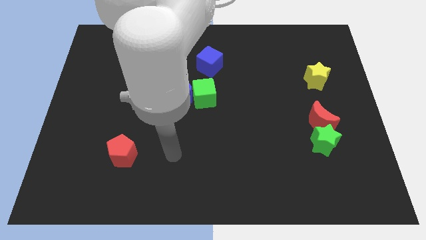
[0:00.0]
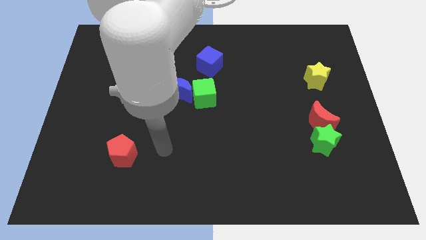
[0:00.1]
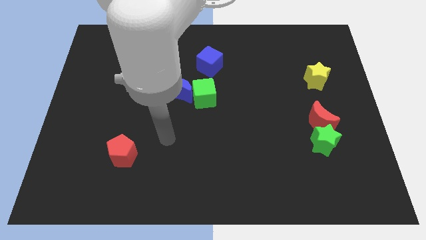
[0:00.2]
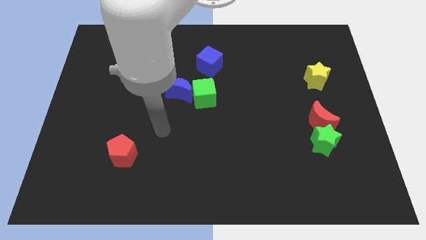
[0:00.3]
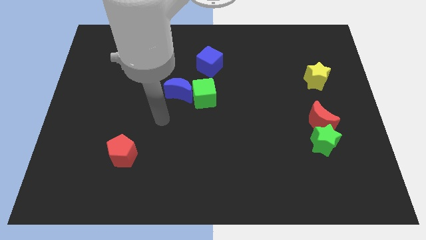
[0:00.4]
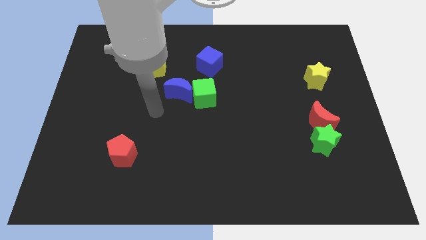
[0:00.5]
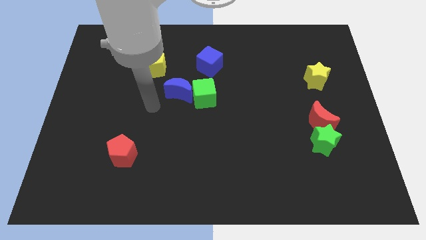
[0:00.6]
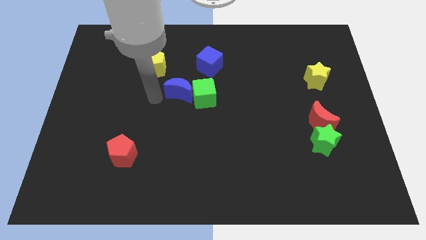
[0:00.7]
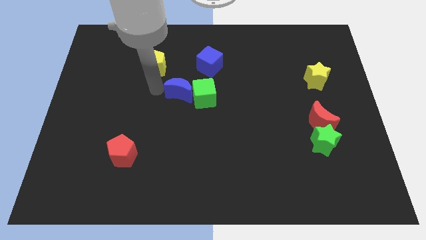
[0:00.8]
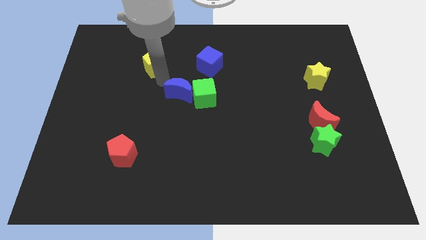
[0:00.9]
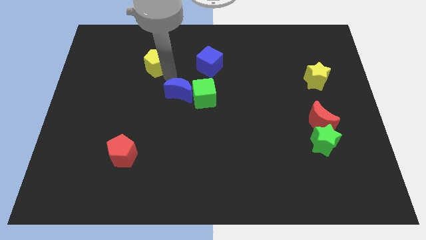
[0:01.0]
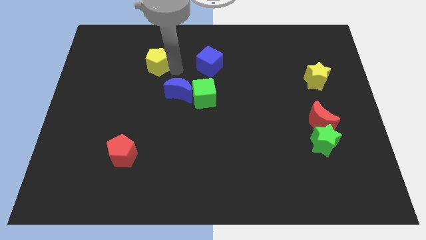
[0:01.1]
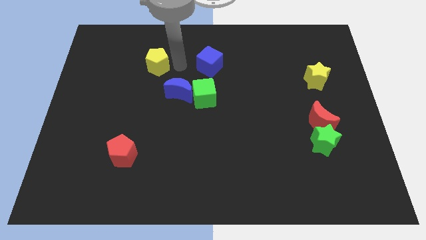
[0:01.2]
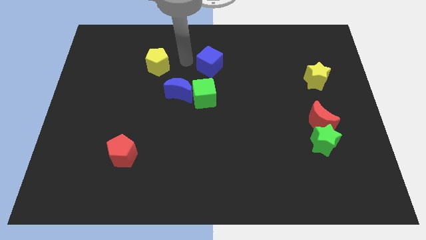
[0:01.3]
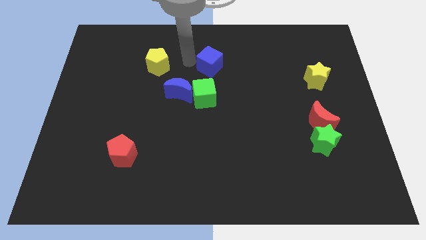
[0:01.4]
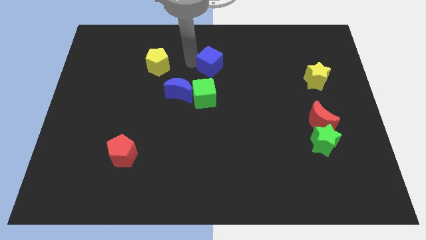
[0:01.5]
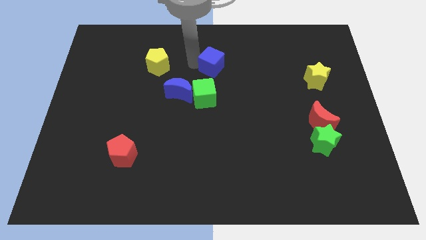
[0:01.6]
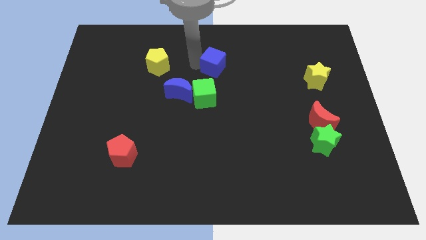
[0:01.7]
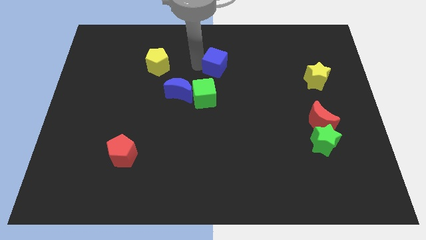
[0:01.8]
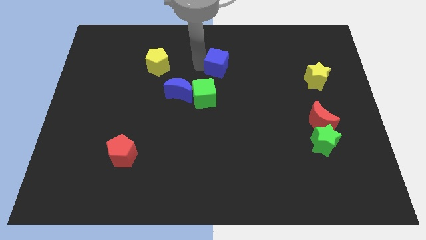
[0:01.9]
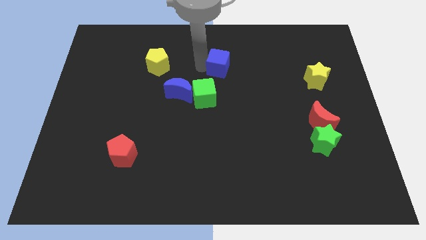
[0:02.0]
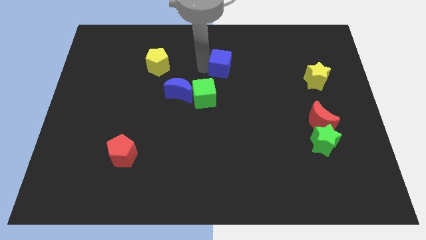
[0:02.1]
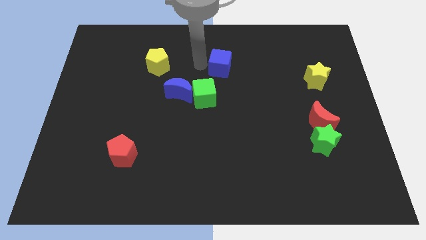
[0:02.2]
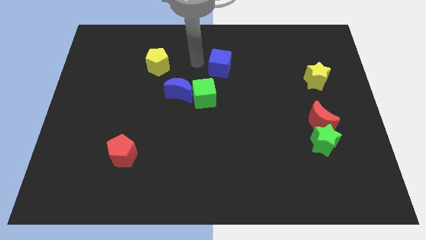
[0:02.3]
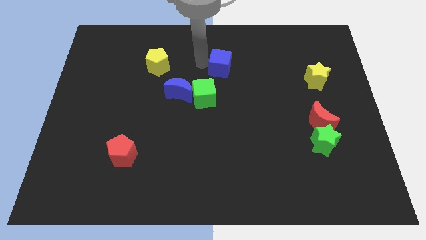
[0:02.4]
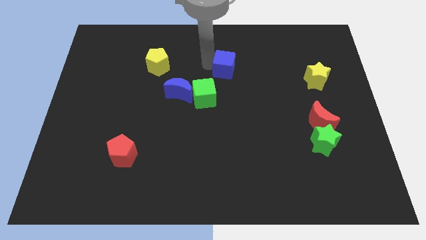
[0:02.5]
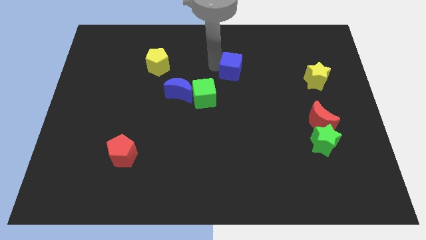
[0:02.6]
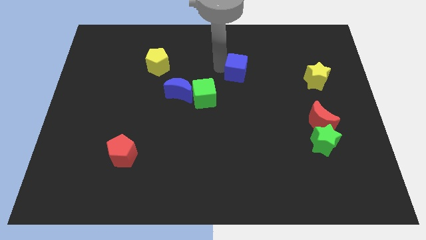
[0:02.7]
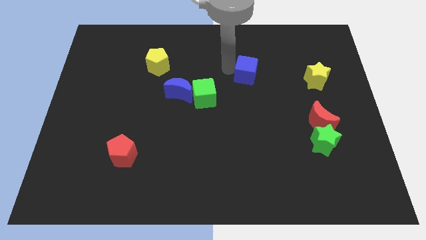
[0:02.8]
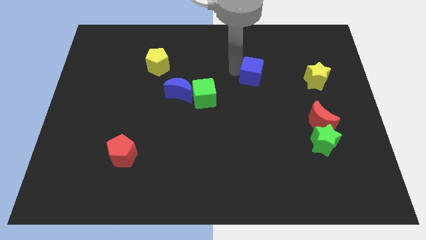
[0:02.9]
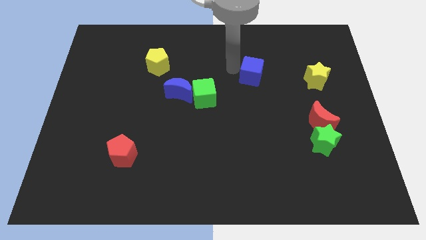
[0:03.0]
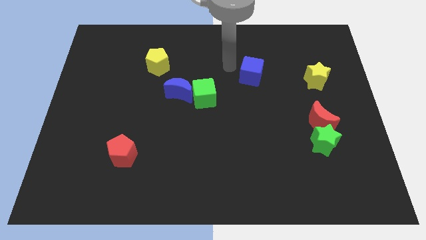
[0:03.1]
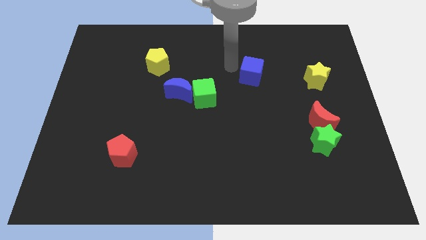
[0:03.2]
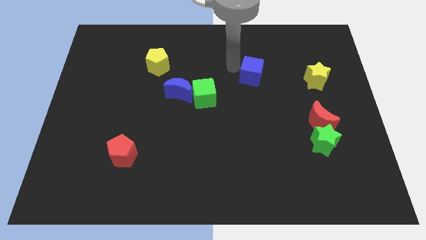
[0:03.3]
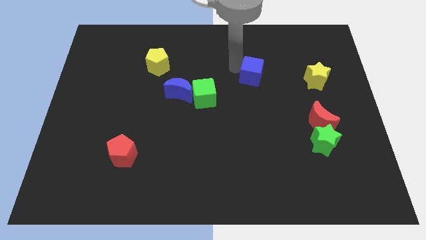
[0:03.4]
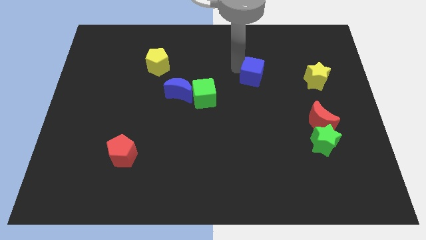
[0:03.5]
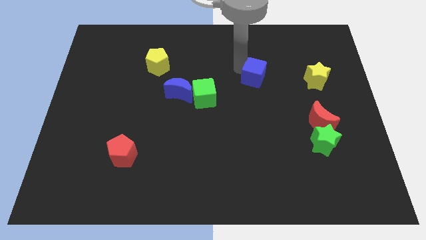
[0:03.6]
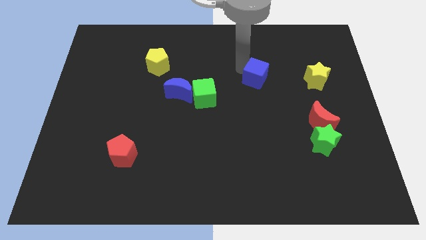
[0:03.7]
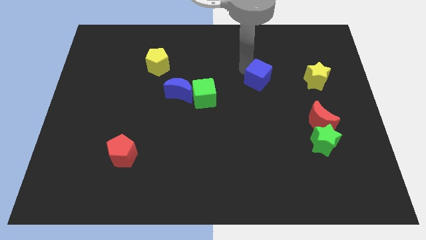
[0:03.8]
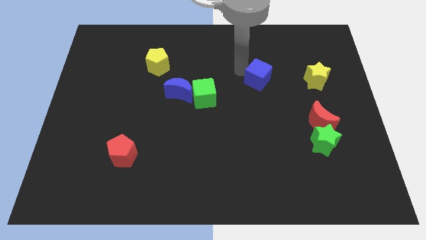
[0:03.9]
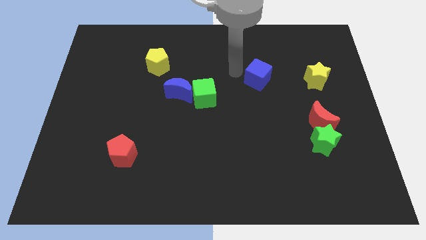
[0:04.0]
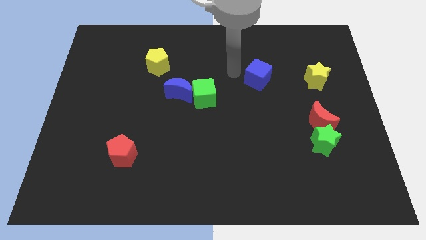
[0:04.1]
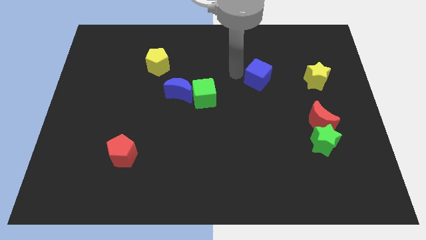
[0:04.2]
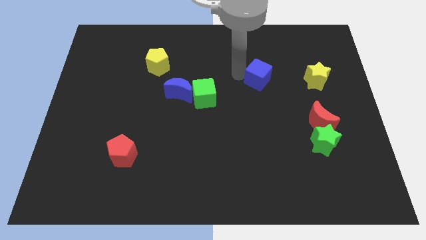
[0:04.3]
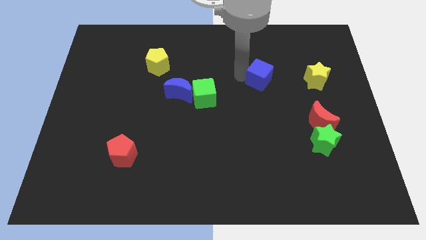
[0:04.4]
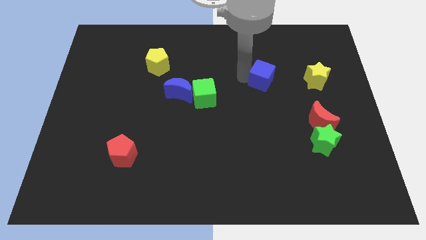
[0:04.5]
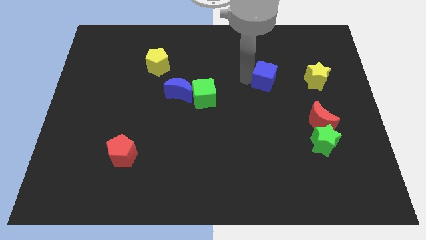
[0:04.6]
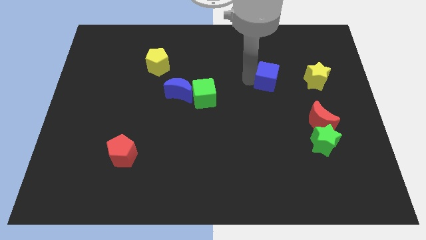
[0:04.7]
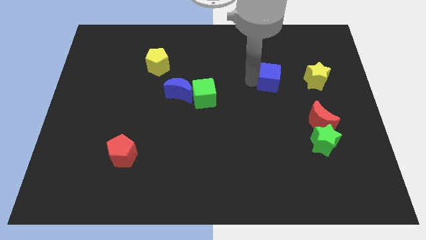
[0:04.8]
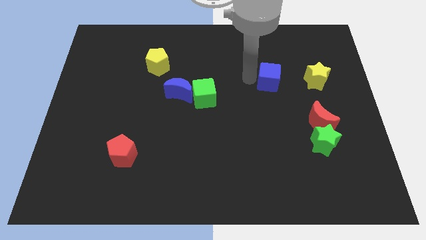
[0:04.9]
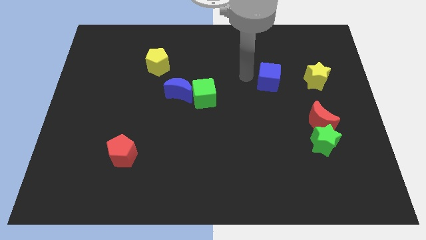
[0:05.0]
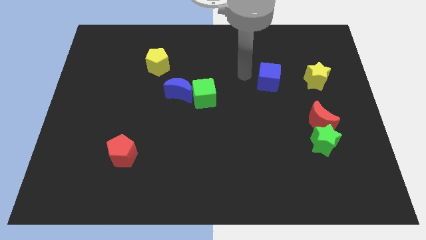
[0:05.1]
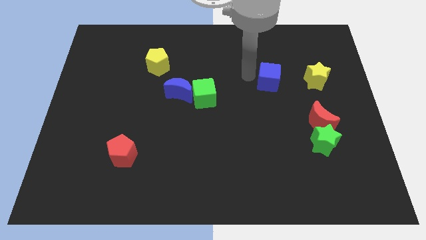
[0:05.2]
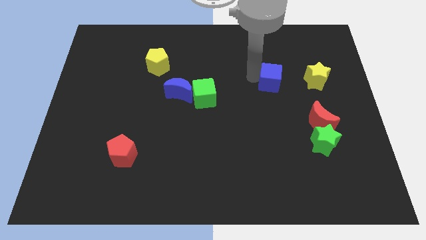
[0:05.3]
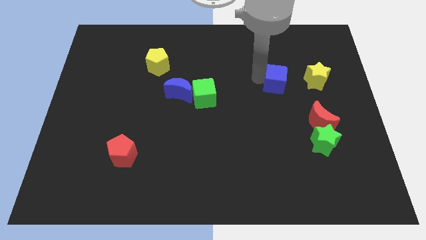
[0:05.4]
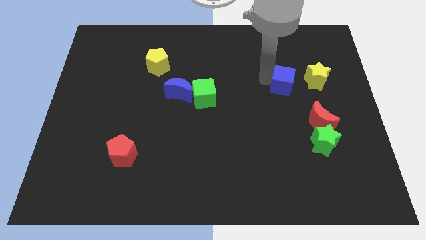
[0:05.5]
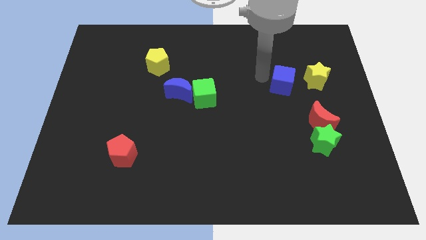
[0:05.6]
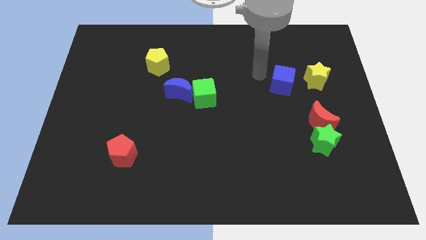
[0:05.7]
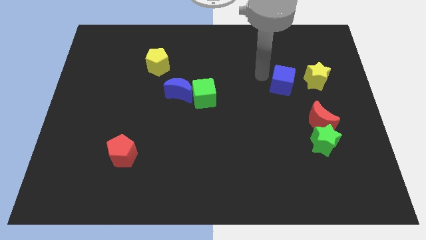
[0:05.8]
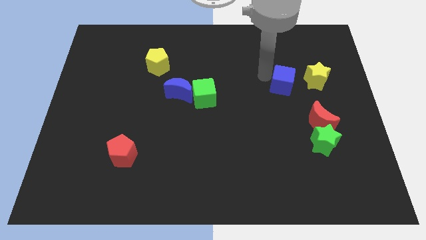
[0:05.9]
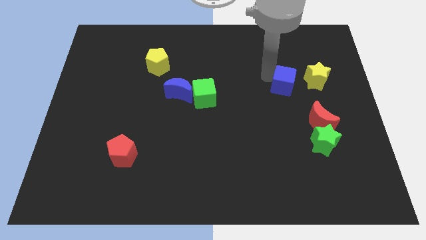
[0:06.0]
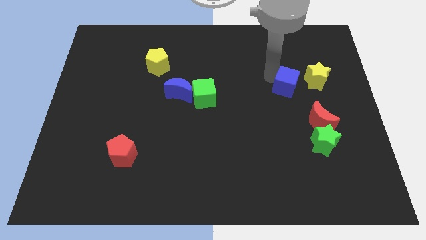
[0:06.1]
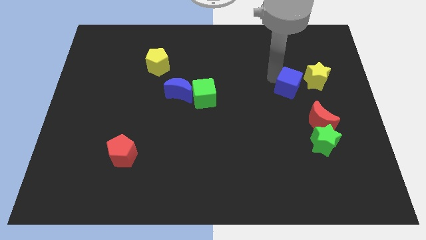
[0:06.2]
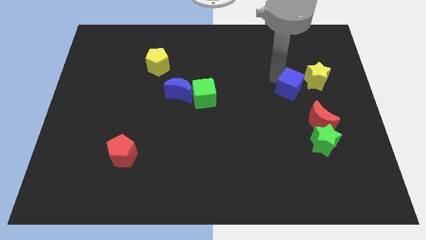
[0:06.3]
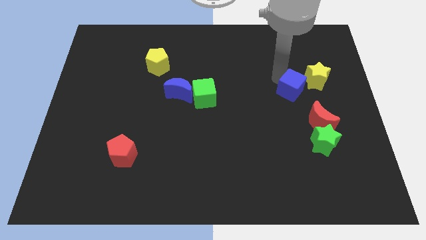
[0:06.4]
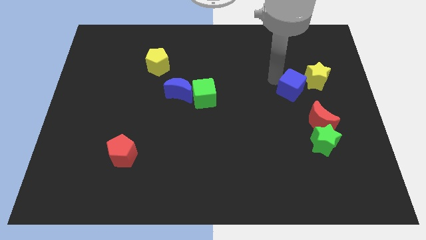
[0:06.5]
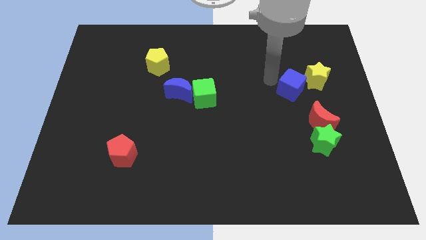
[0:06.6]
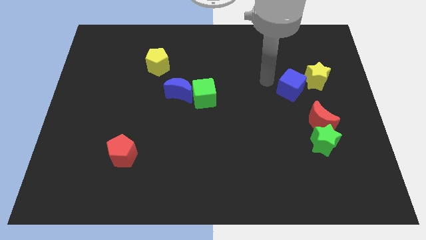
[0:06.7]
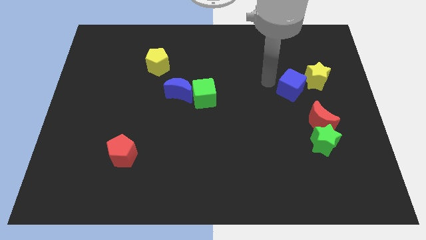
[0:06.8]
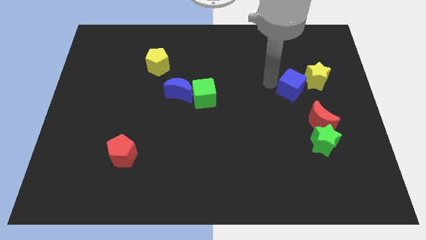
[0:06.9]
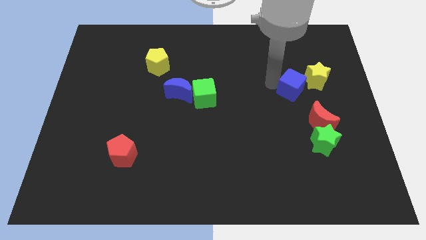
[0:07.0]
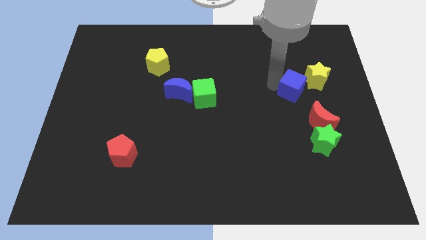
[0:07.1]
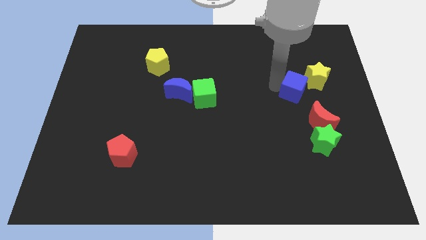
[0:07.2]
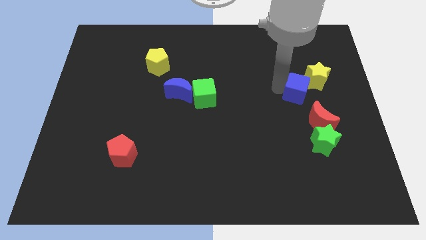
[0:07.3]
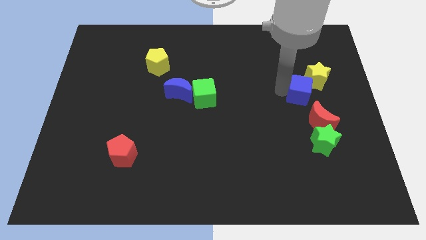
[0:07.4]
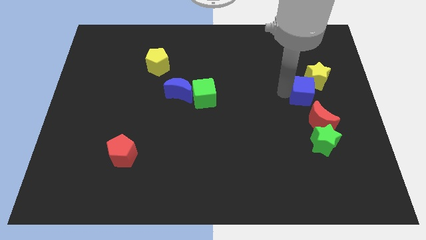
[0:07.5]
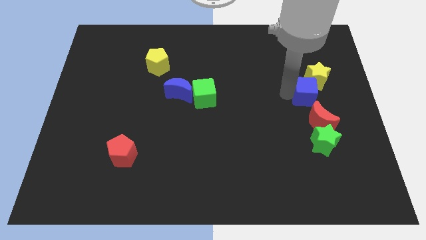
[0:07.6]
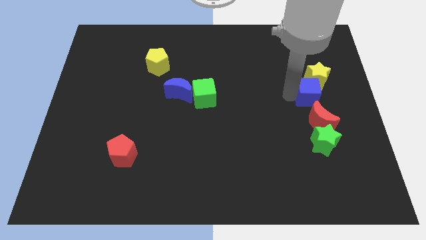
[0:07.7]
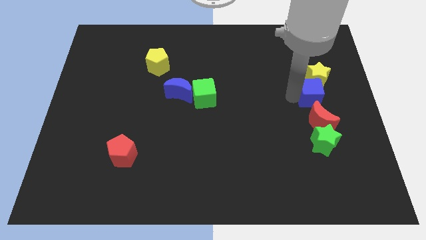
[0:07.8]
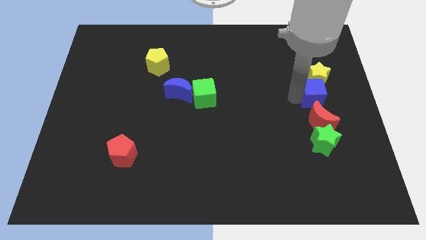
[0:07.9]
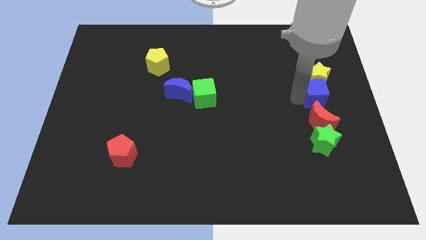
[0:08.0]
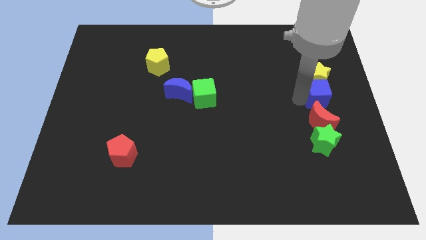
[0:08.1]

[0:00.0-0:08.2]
slide the blue cube to the right side
